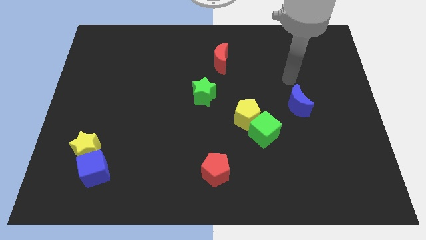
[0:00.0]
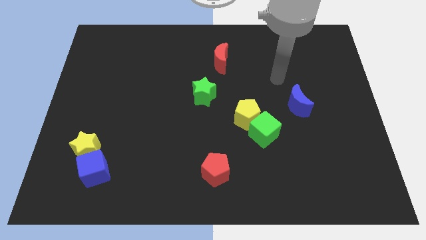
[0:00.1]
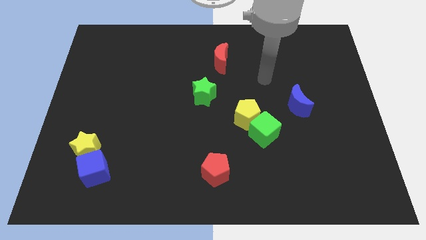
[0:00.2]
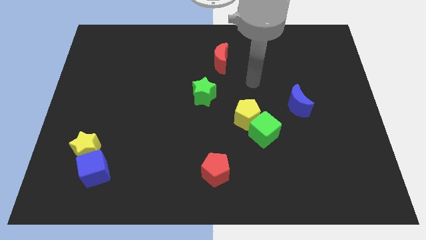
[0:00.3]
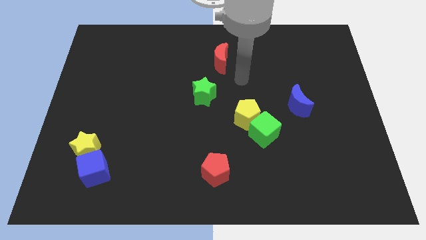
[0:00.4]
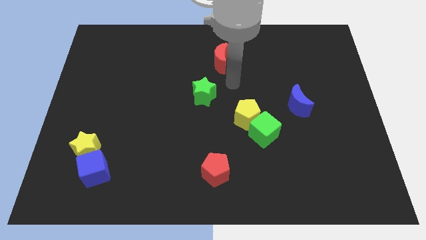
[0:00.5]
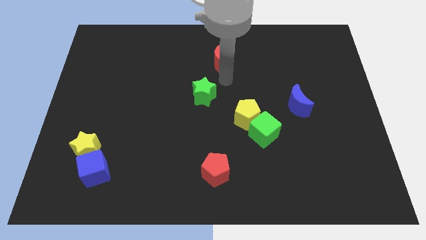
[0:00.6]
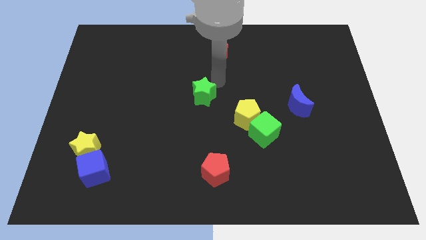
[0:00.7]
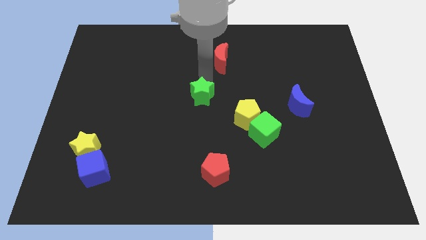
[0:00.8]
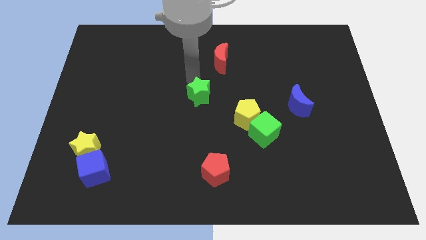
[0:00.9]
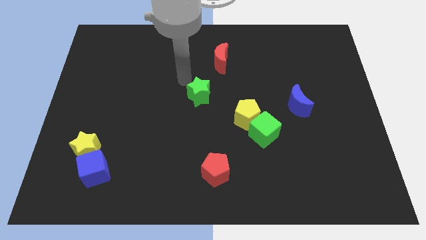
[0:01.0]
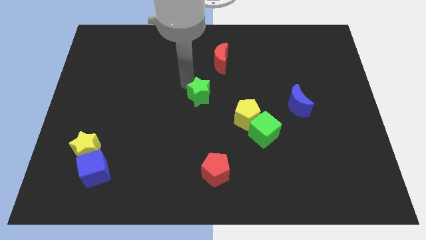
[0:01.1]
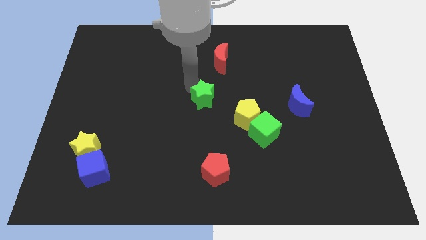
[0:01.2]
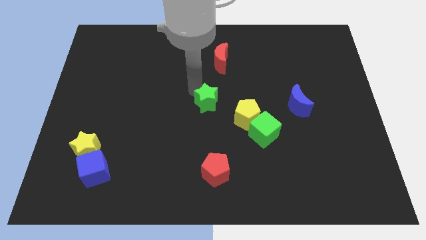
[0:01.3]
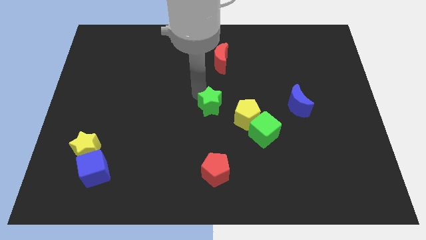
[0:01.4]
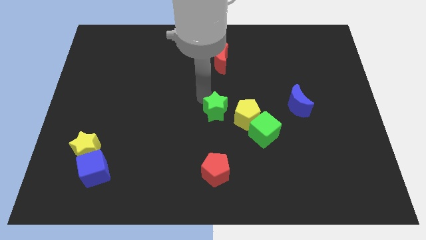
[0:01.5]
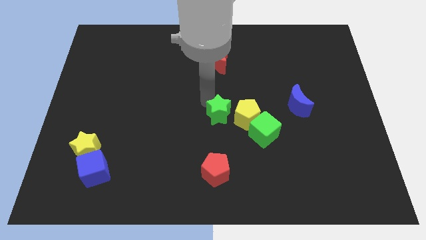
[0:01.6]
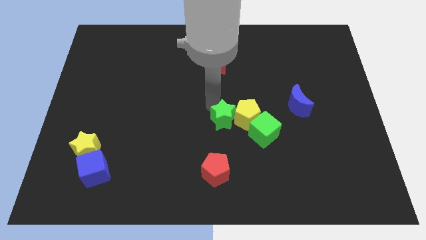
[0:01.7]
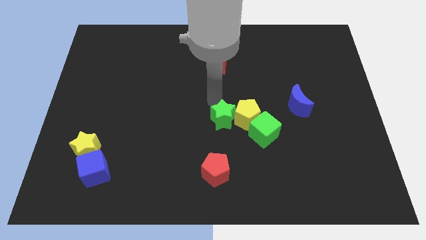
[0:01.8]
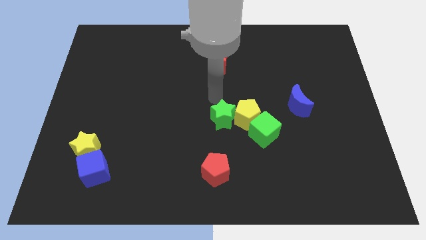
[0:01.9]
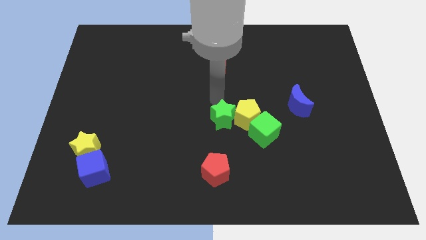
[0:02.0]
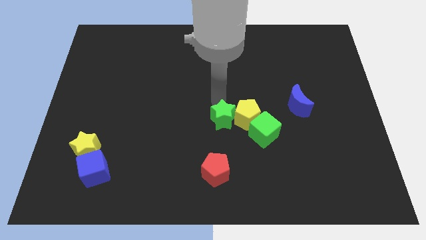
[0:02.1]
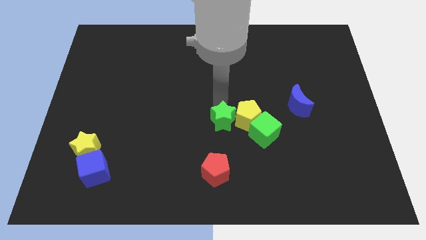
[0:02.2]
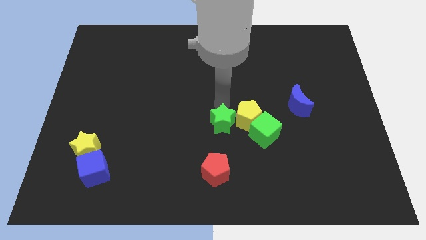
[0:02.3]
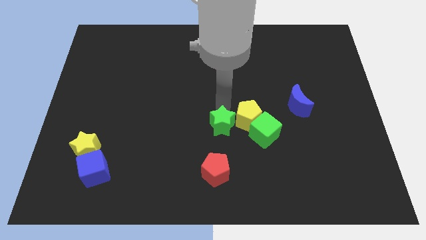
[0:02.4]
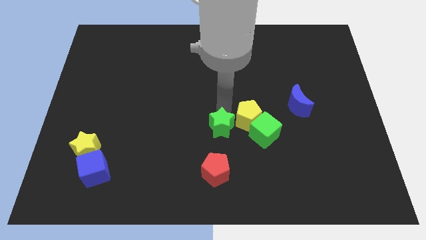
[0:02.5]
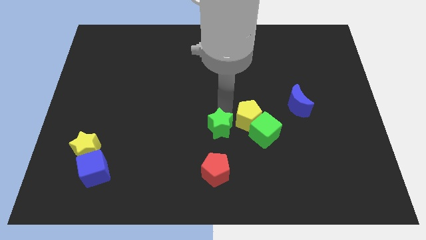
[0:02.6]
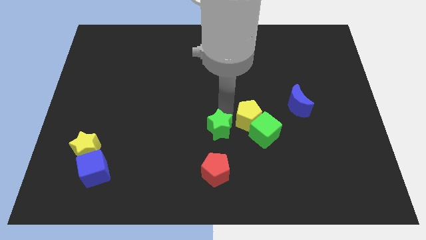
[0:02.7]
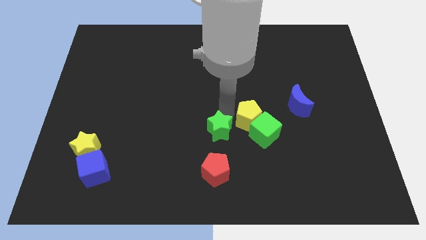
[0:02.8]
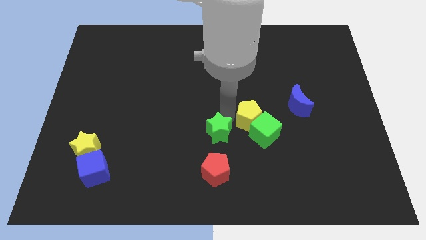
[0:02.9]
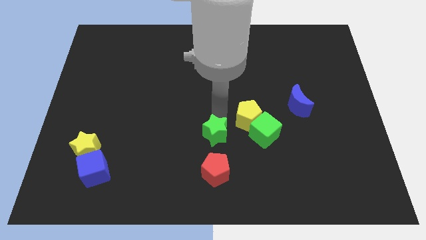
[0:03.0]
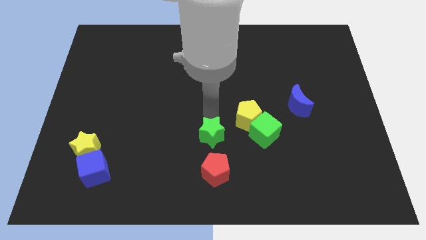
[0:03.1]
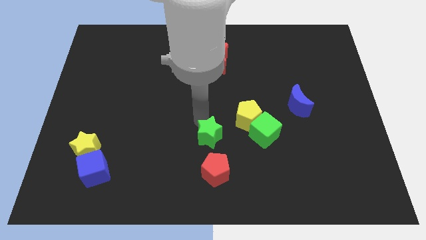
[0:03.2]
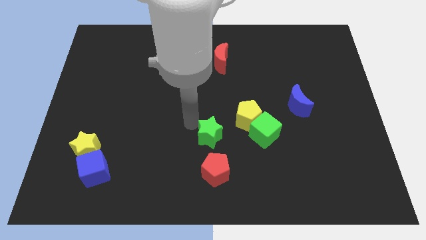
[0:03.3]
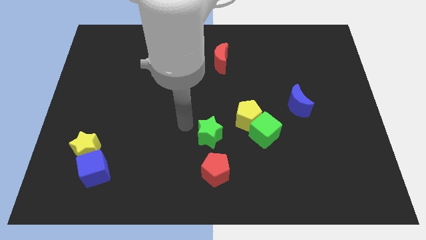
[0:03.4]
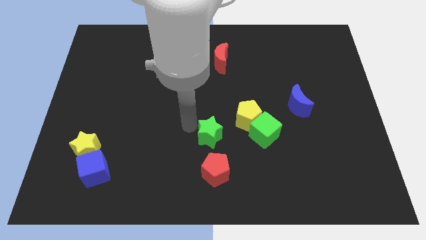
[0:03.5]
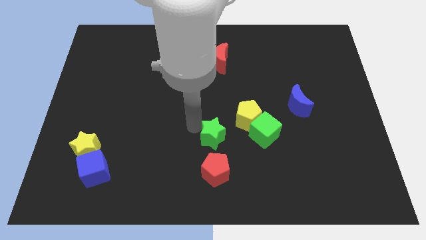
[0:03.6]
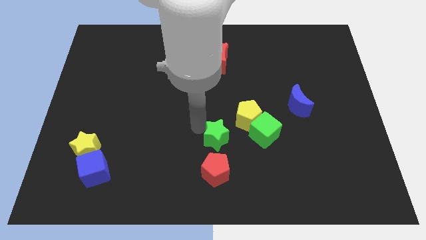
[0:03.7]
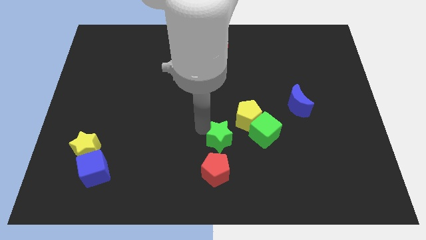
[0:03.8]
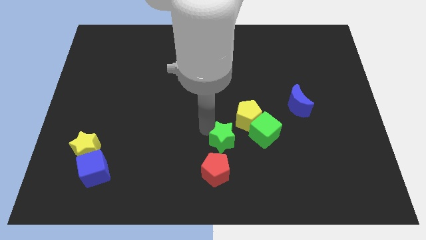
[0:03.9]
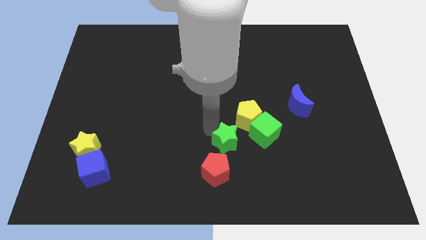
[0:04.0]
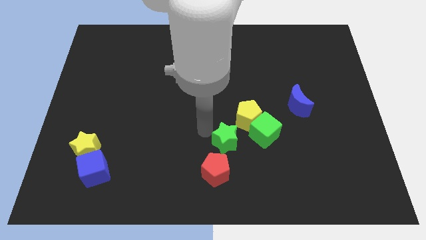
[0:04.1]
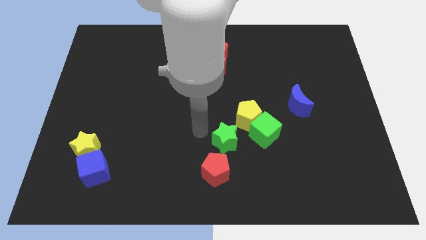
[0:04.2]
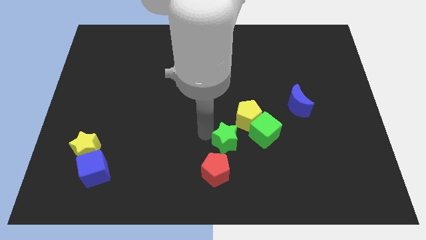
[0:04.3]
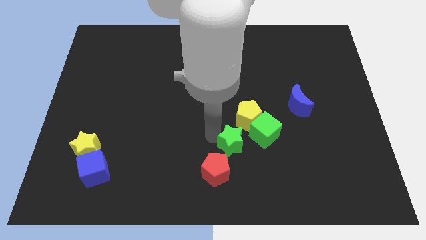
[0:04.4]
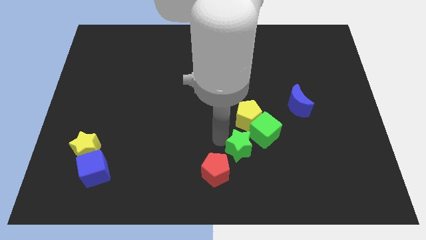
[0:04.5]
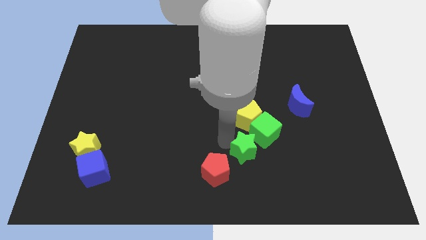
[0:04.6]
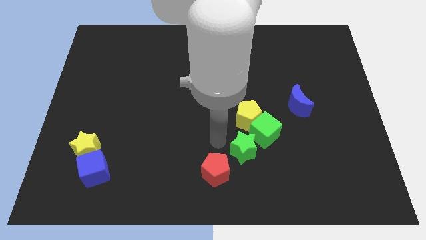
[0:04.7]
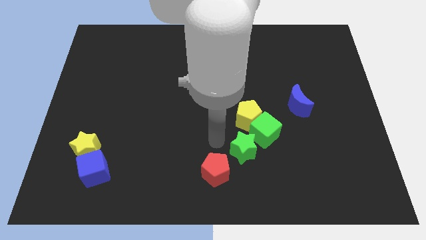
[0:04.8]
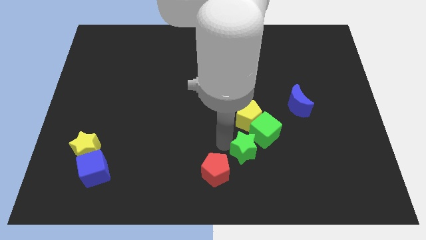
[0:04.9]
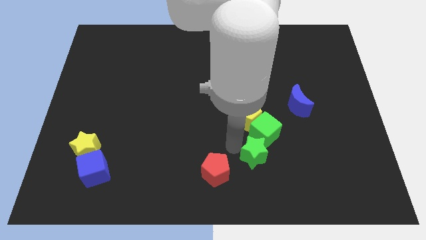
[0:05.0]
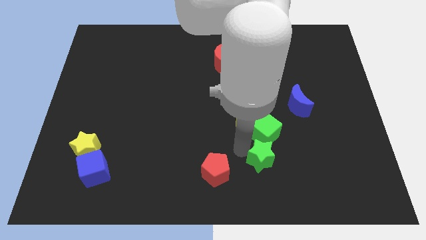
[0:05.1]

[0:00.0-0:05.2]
push the green star downwards and then to the right

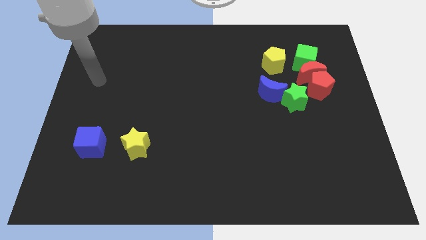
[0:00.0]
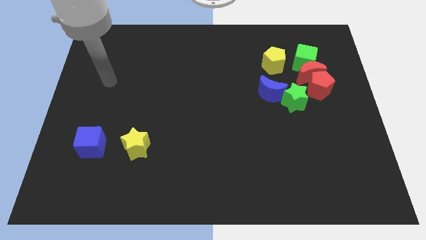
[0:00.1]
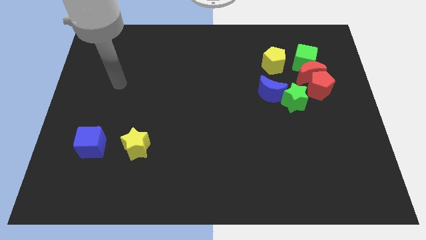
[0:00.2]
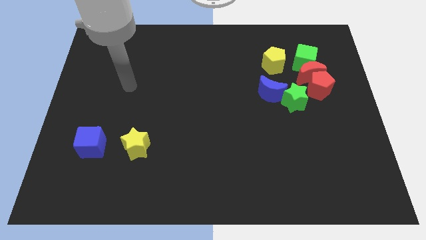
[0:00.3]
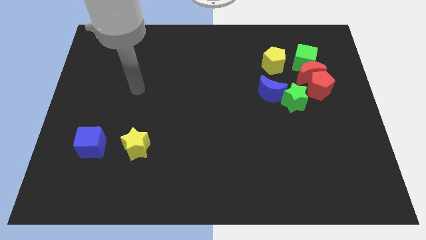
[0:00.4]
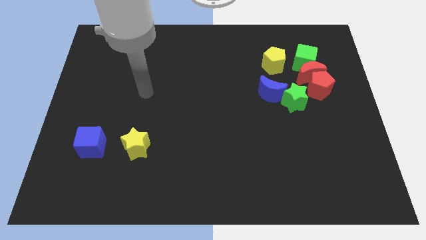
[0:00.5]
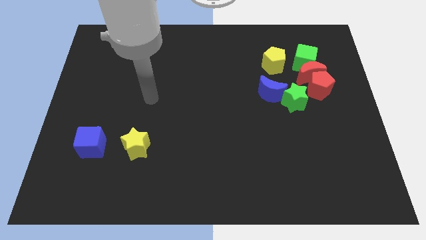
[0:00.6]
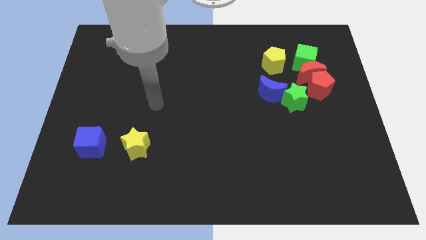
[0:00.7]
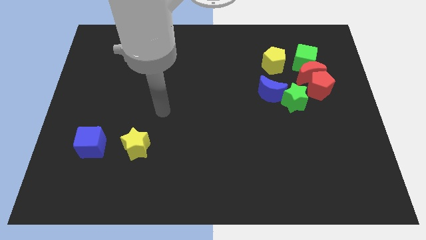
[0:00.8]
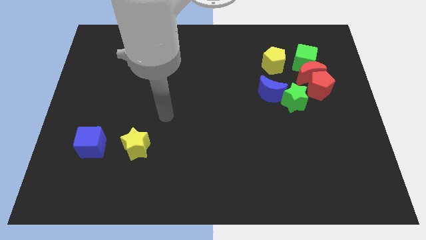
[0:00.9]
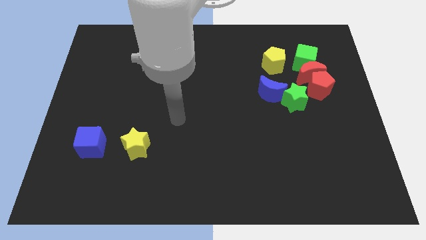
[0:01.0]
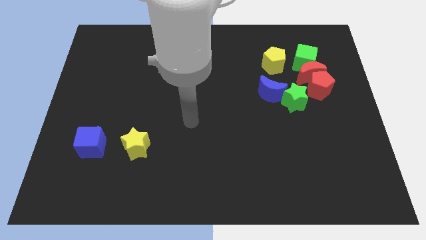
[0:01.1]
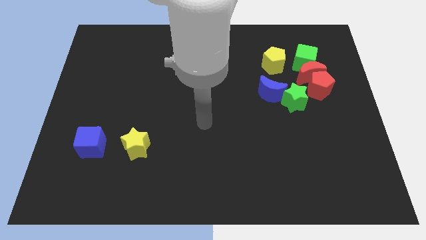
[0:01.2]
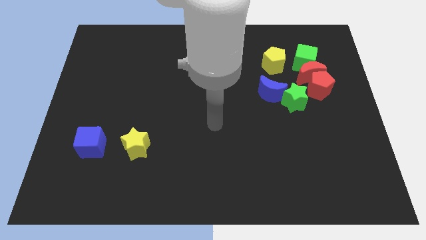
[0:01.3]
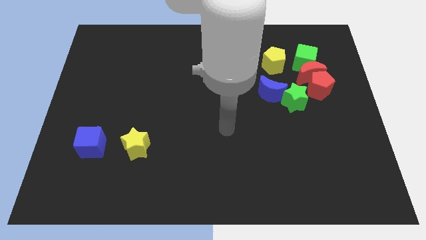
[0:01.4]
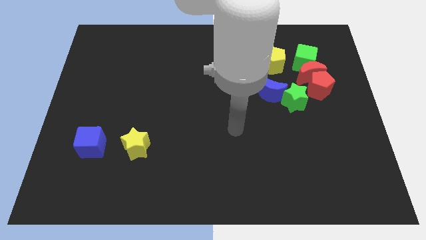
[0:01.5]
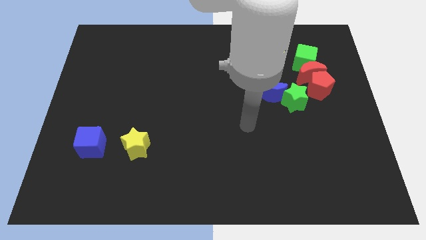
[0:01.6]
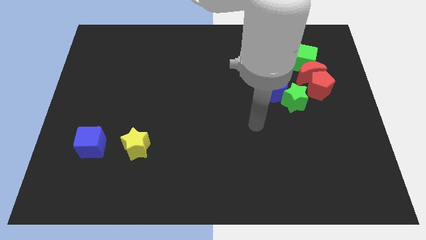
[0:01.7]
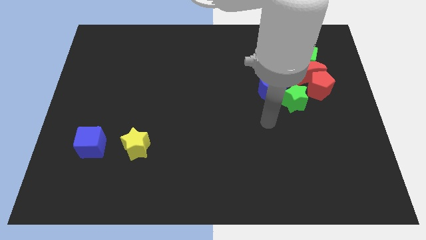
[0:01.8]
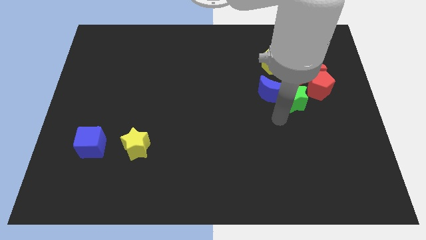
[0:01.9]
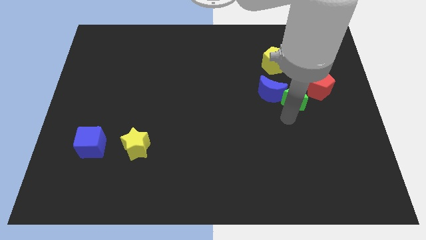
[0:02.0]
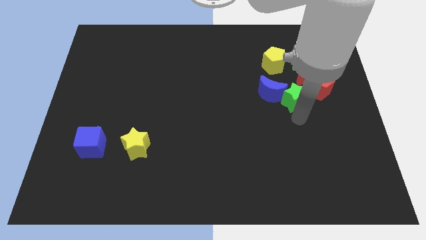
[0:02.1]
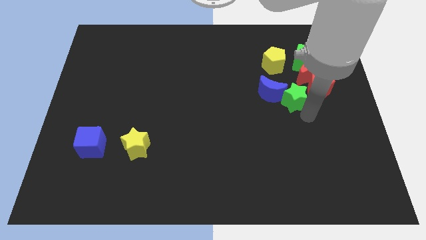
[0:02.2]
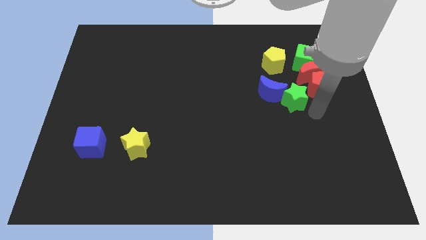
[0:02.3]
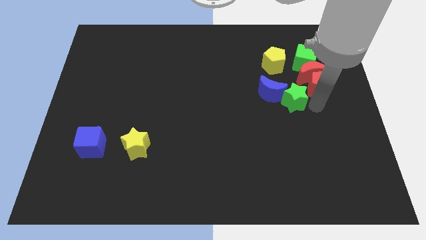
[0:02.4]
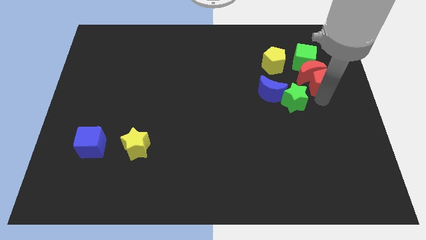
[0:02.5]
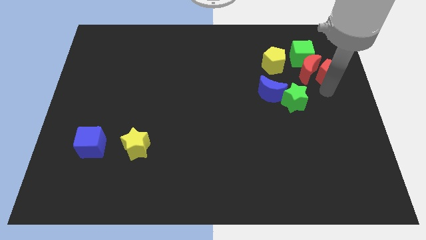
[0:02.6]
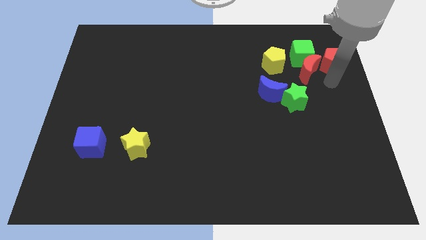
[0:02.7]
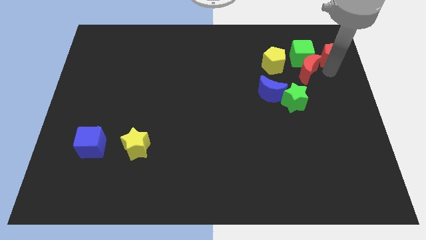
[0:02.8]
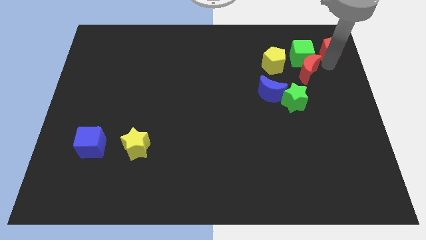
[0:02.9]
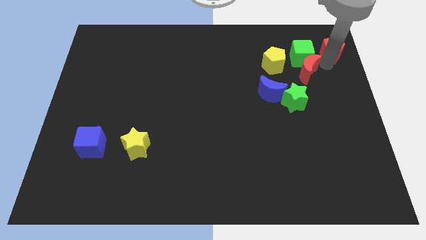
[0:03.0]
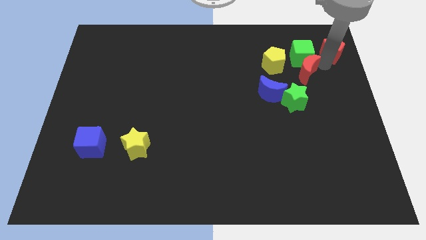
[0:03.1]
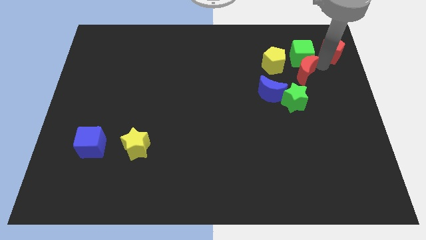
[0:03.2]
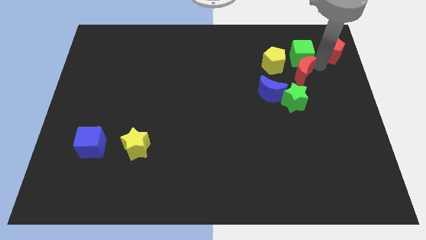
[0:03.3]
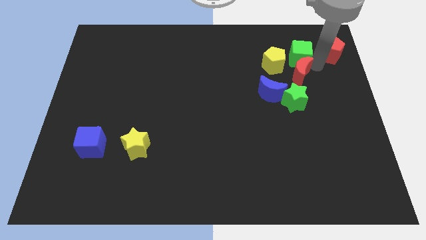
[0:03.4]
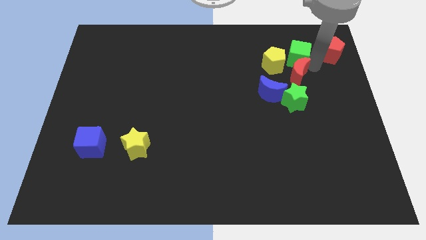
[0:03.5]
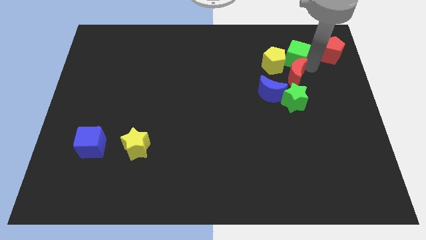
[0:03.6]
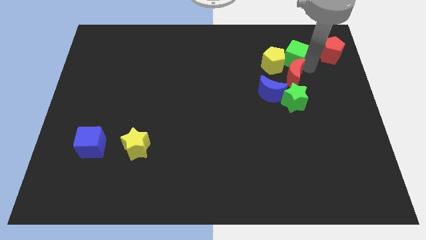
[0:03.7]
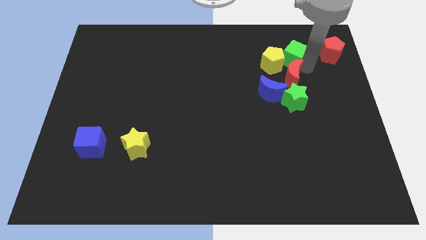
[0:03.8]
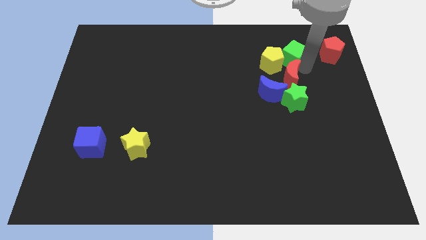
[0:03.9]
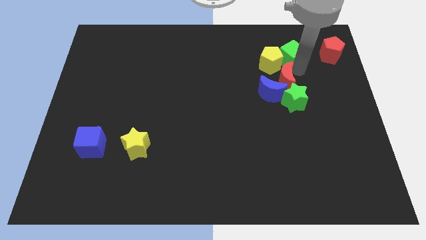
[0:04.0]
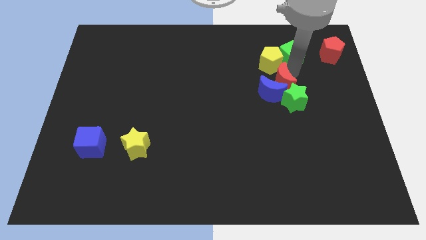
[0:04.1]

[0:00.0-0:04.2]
move the red moon left a bit
